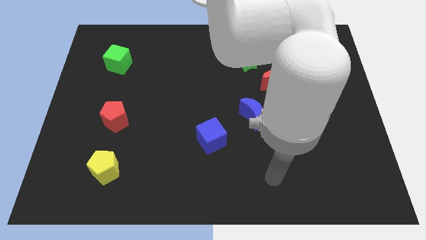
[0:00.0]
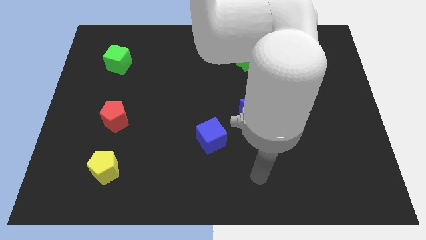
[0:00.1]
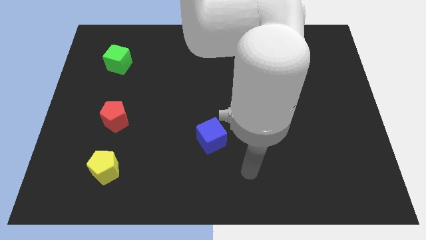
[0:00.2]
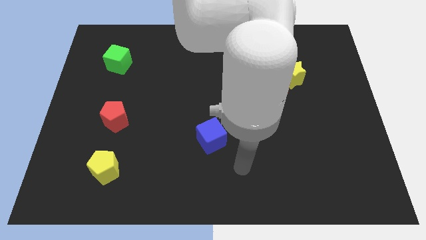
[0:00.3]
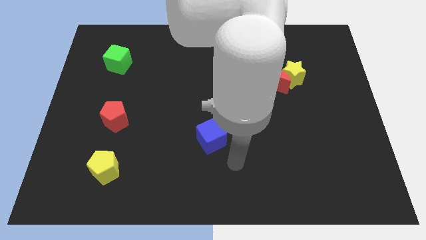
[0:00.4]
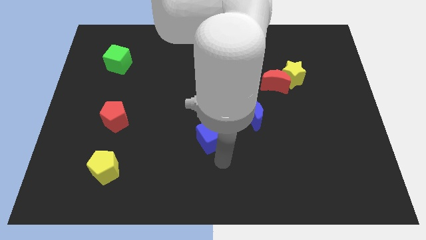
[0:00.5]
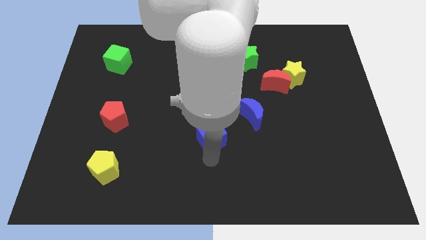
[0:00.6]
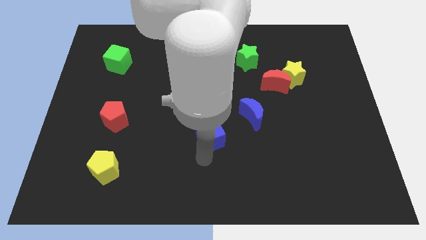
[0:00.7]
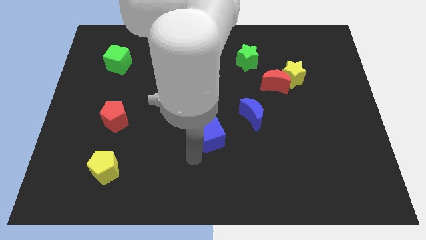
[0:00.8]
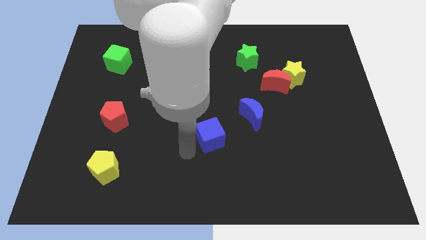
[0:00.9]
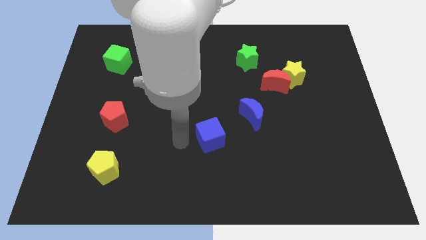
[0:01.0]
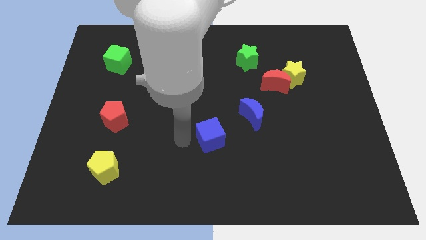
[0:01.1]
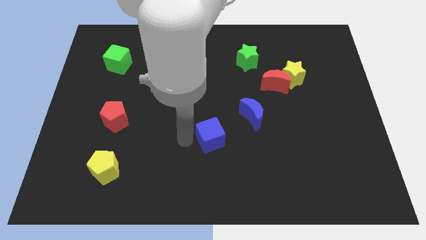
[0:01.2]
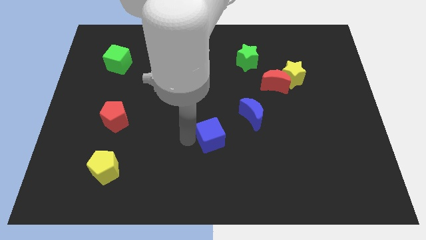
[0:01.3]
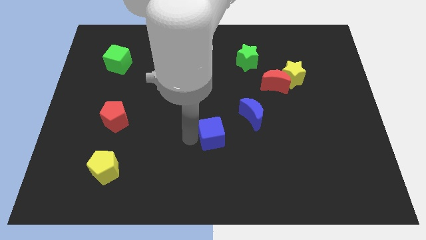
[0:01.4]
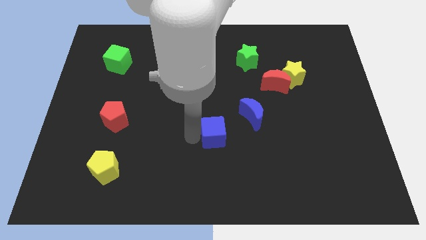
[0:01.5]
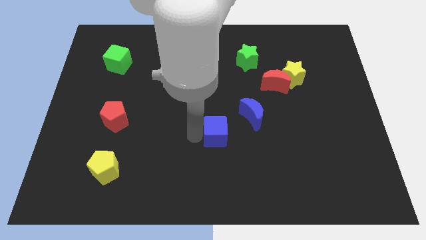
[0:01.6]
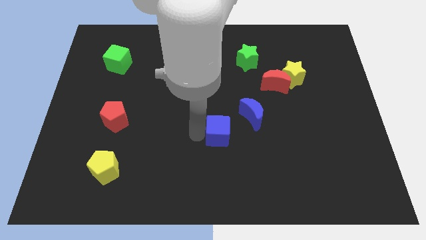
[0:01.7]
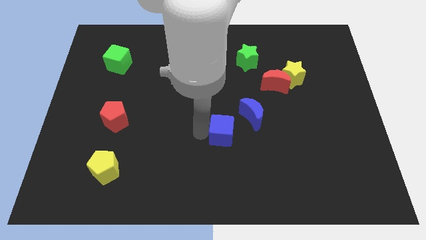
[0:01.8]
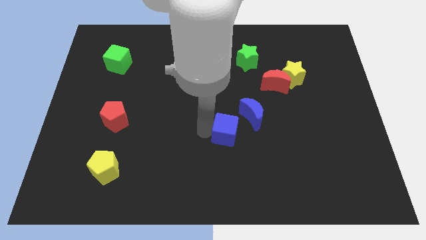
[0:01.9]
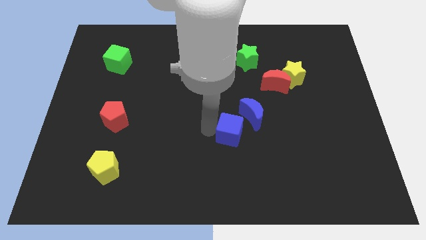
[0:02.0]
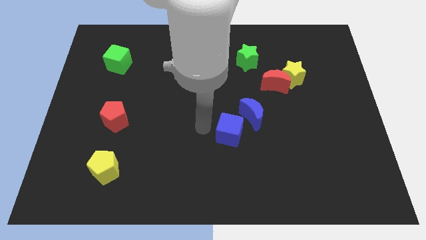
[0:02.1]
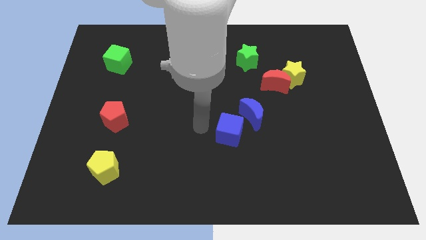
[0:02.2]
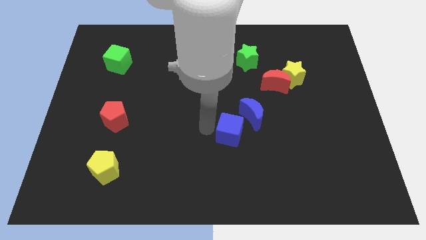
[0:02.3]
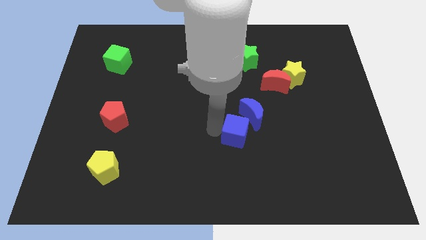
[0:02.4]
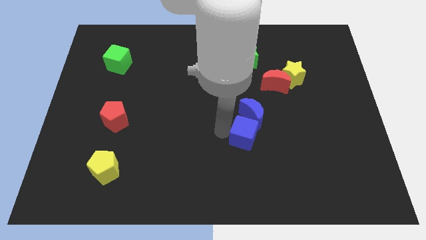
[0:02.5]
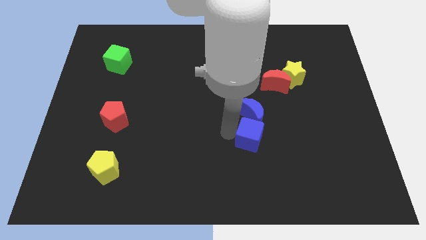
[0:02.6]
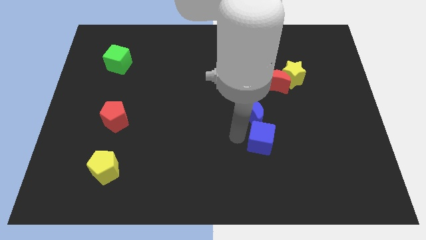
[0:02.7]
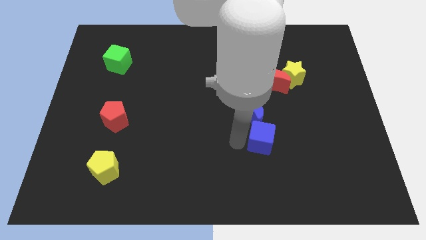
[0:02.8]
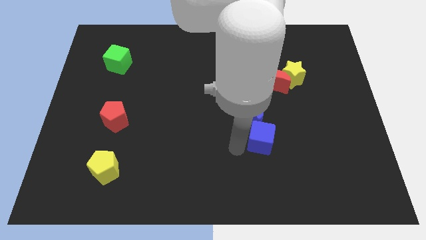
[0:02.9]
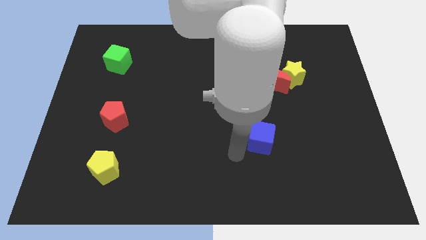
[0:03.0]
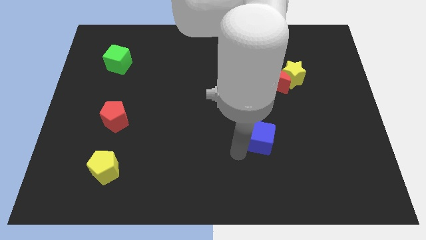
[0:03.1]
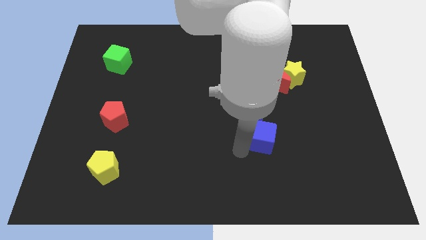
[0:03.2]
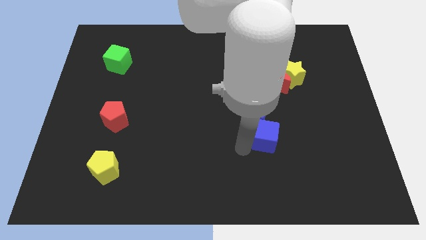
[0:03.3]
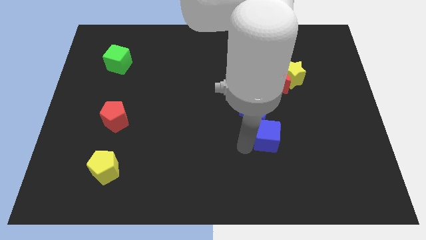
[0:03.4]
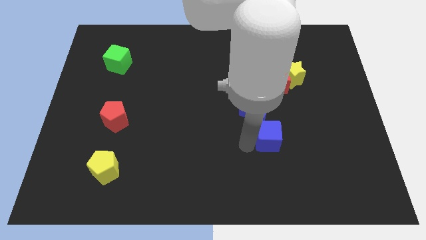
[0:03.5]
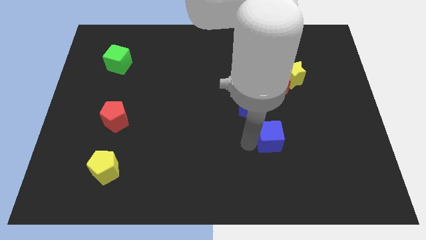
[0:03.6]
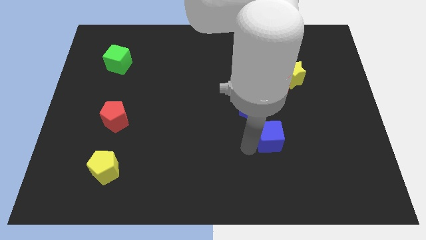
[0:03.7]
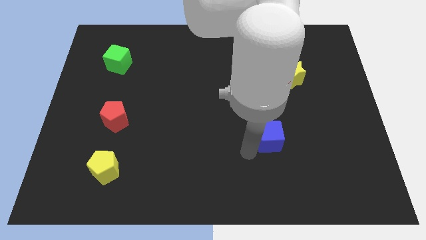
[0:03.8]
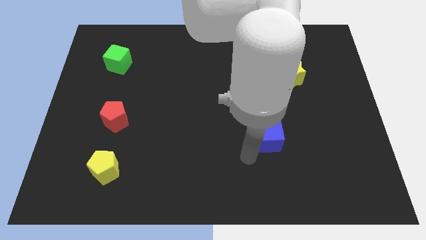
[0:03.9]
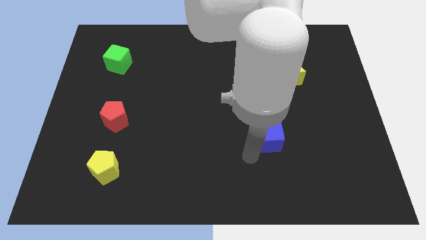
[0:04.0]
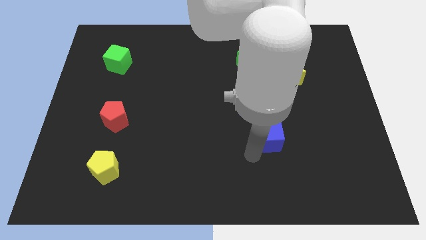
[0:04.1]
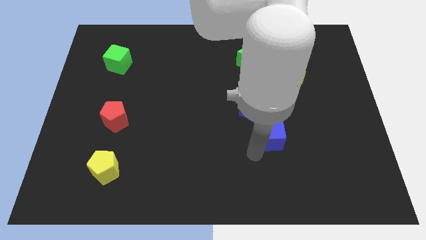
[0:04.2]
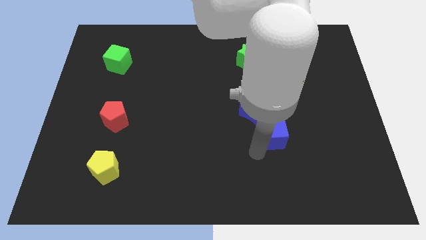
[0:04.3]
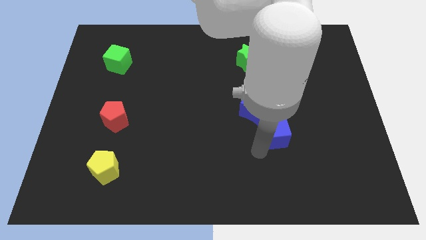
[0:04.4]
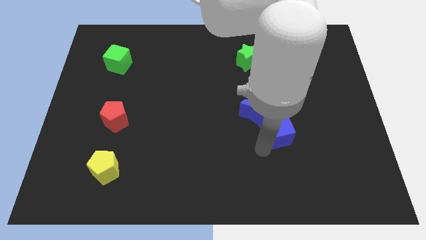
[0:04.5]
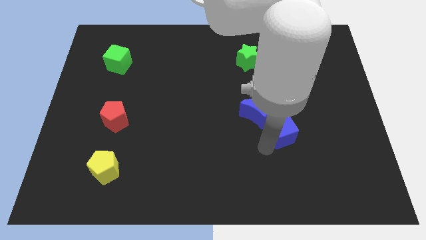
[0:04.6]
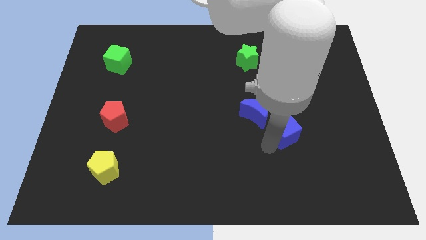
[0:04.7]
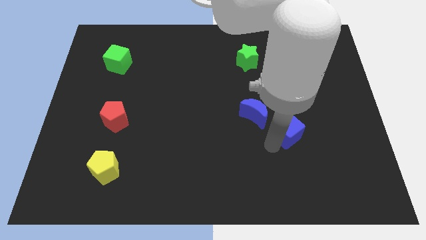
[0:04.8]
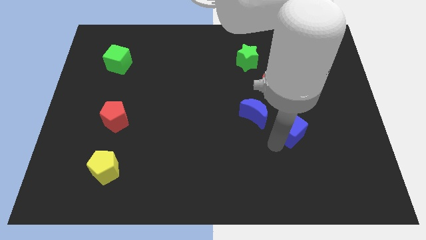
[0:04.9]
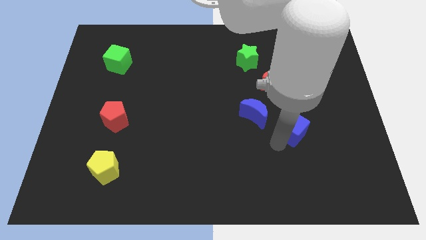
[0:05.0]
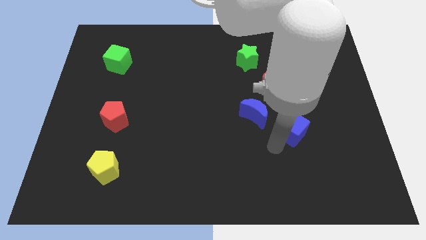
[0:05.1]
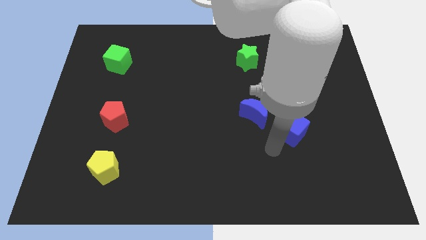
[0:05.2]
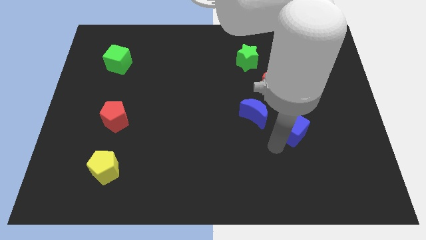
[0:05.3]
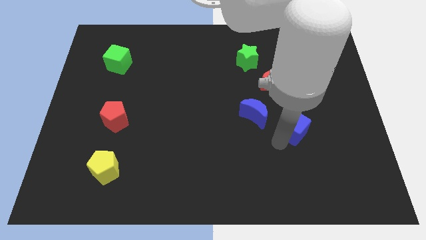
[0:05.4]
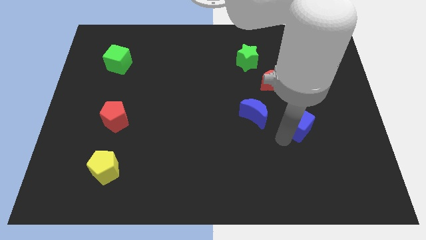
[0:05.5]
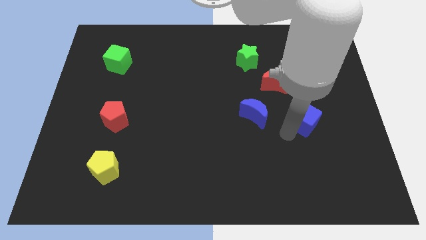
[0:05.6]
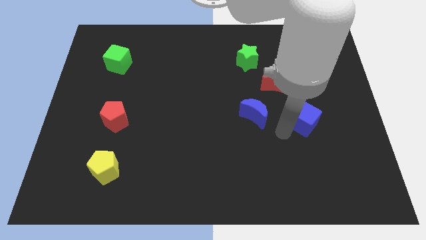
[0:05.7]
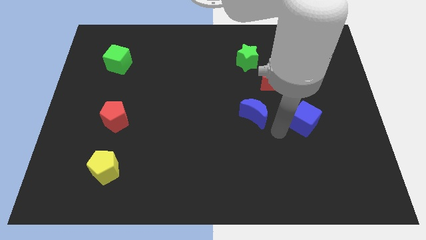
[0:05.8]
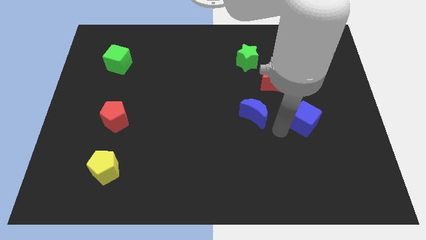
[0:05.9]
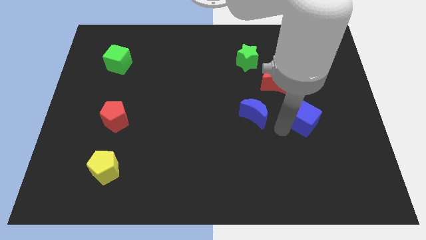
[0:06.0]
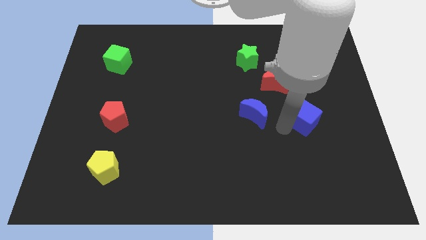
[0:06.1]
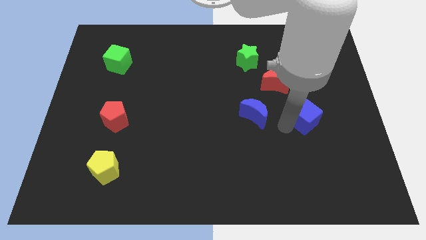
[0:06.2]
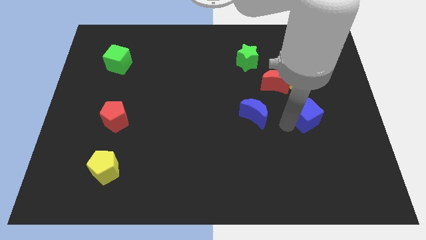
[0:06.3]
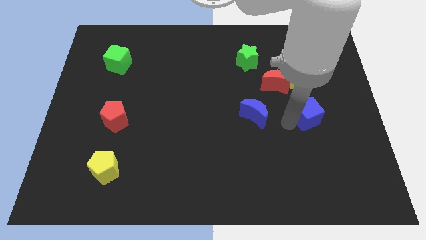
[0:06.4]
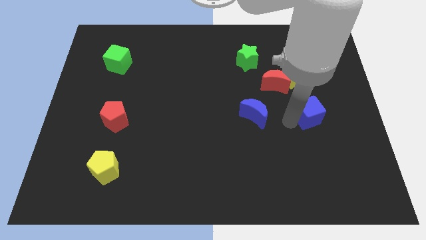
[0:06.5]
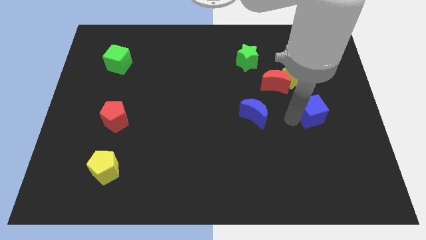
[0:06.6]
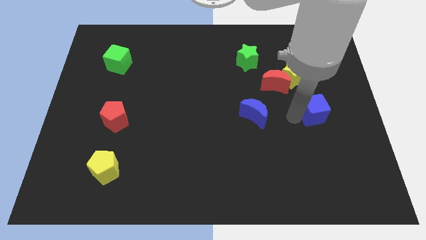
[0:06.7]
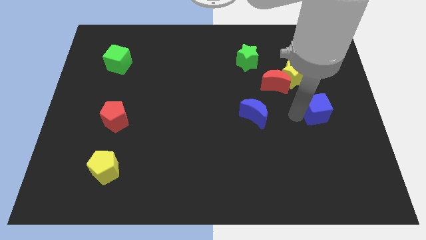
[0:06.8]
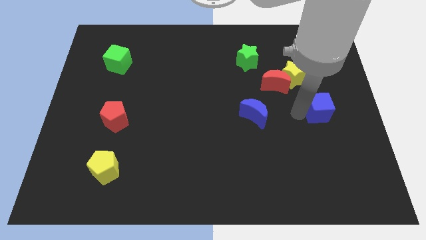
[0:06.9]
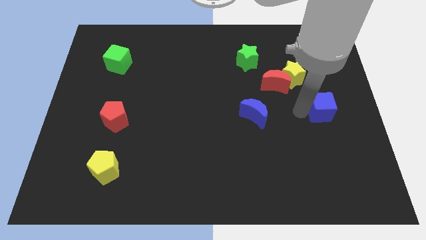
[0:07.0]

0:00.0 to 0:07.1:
push the blue cube to the center right
